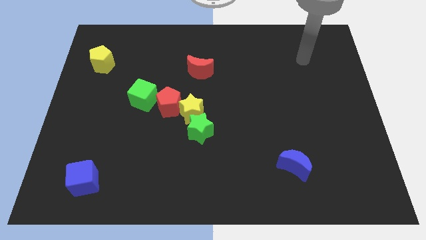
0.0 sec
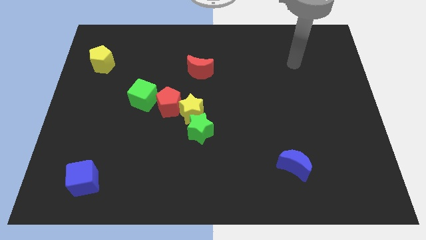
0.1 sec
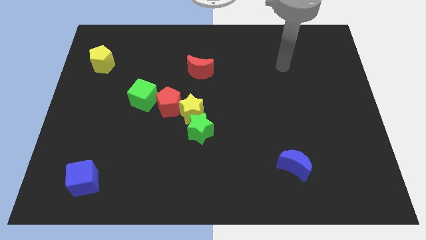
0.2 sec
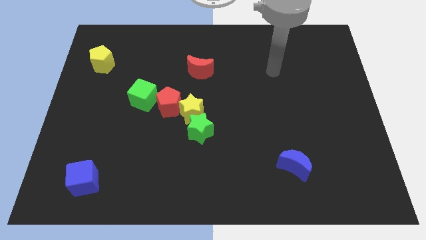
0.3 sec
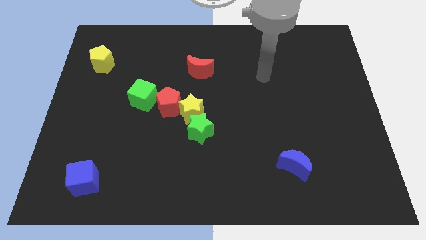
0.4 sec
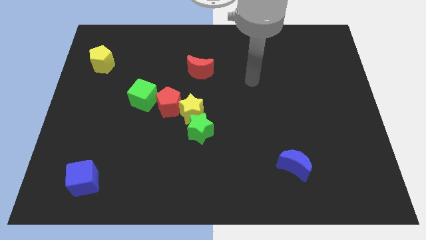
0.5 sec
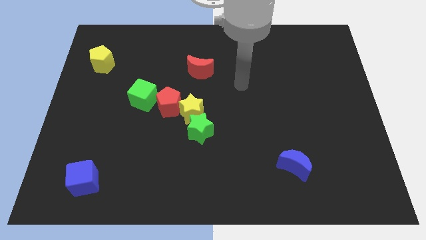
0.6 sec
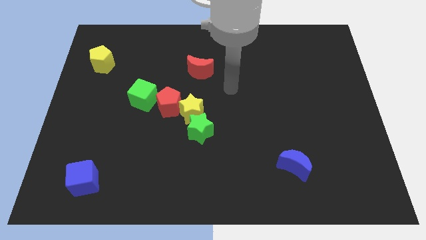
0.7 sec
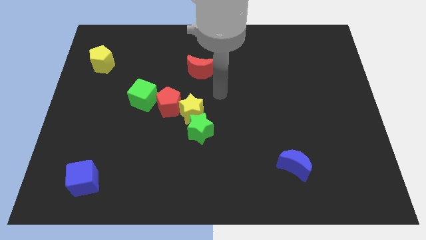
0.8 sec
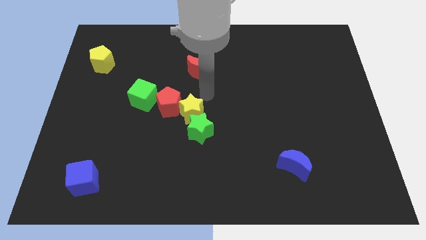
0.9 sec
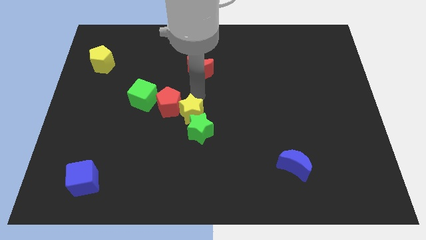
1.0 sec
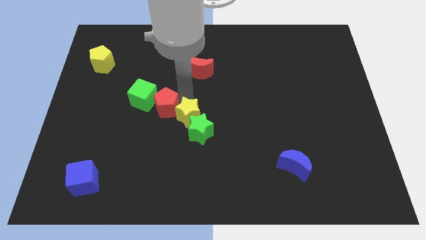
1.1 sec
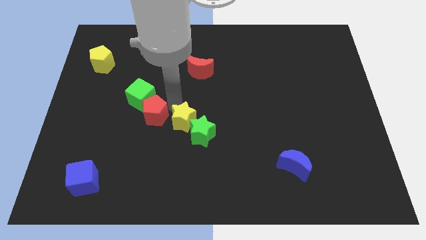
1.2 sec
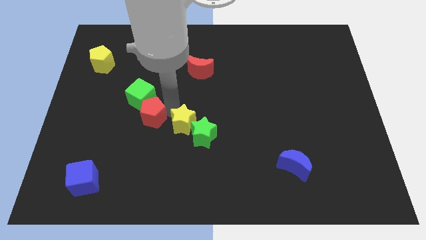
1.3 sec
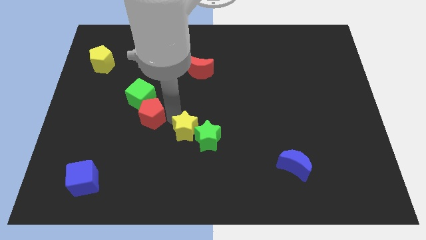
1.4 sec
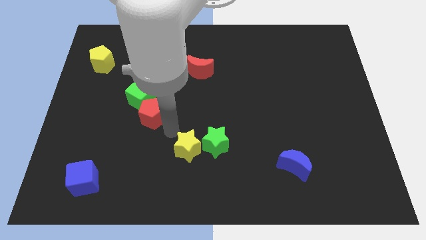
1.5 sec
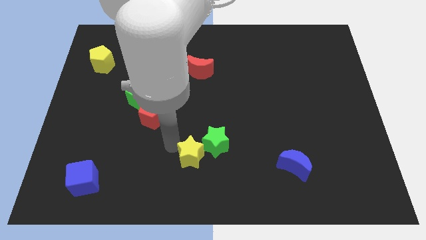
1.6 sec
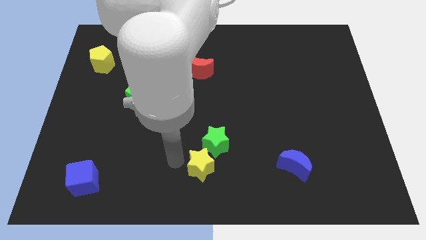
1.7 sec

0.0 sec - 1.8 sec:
move the yellow star away from the green star and red pentagon

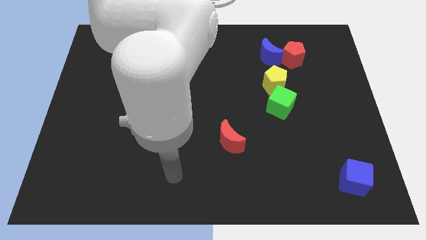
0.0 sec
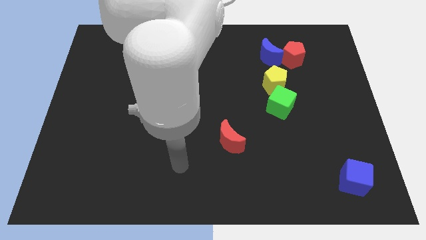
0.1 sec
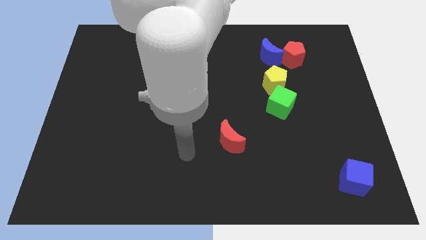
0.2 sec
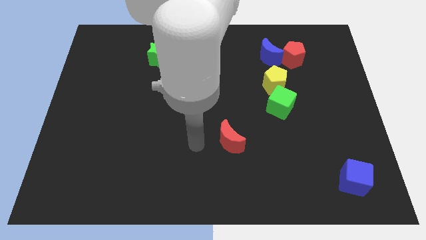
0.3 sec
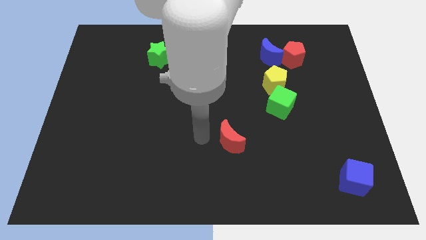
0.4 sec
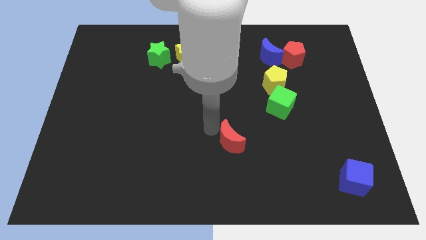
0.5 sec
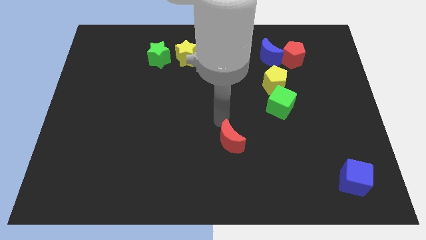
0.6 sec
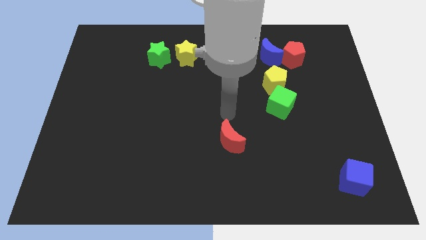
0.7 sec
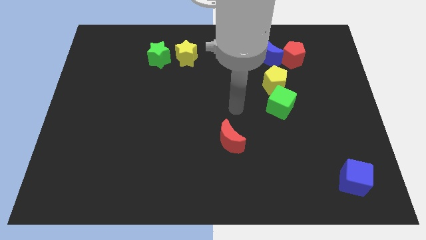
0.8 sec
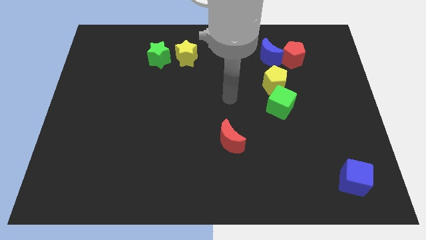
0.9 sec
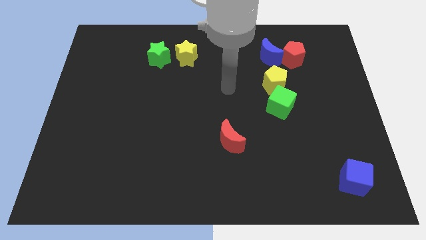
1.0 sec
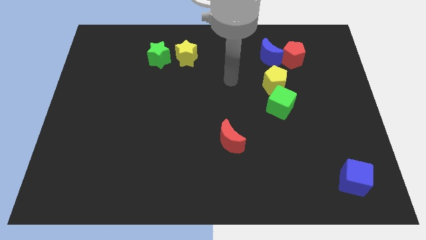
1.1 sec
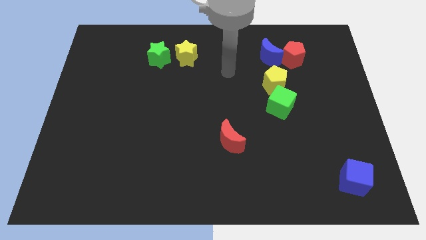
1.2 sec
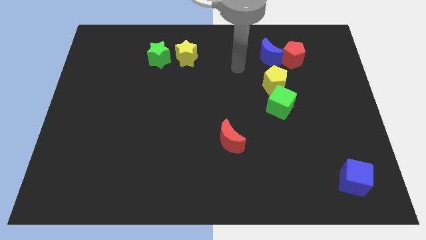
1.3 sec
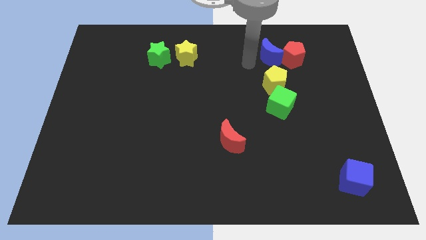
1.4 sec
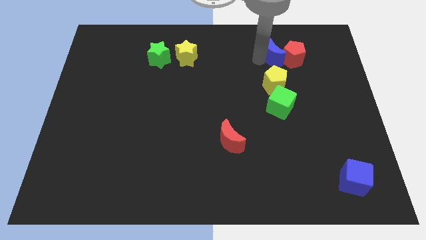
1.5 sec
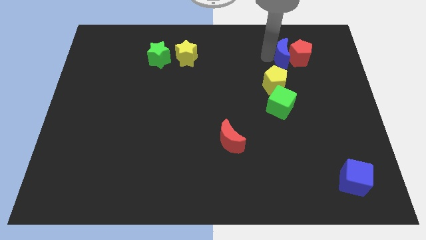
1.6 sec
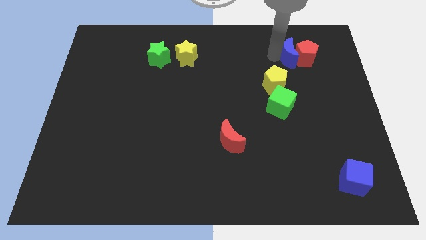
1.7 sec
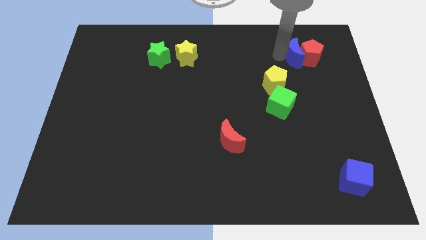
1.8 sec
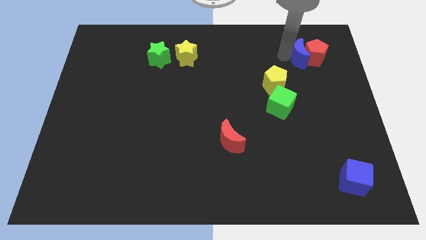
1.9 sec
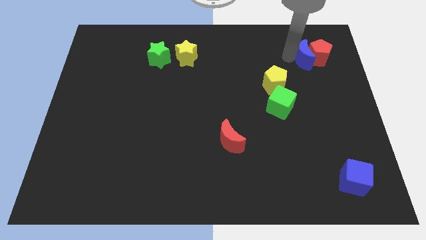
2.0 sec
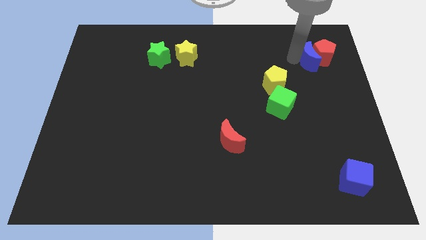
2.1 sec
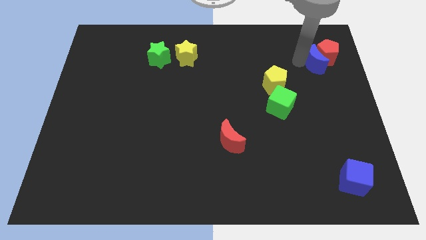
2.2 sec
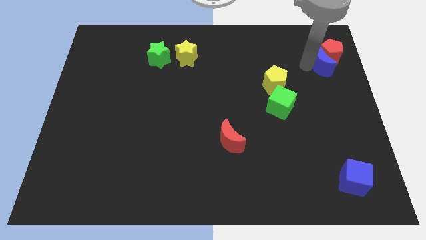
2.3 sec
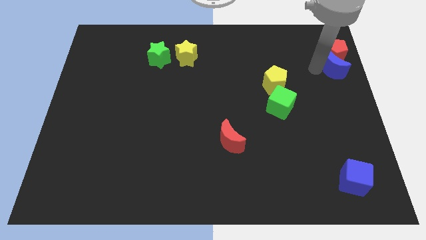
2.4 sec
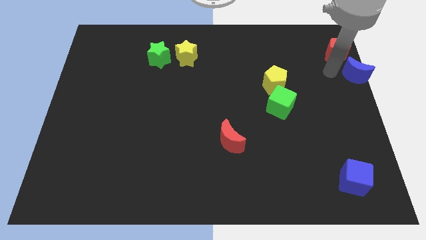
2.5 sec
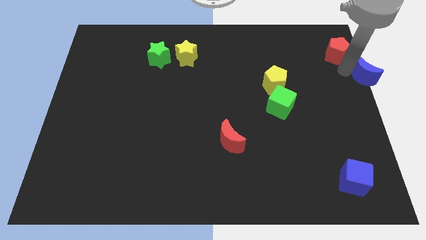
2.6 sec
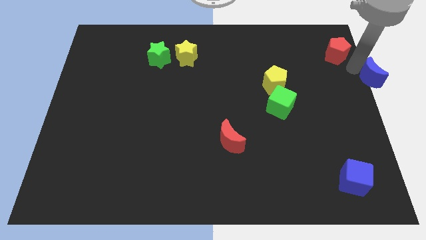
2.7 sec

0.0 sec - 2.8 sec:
pull the red pentagon apart from the blue moon

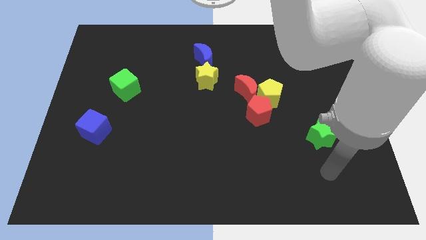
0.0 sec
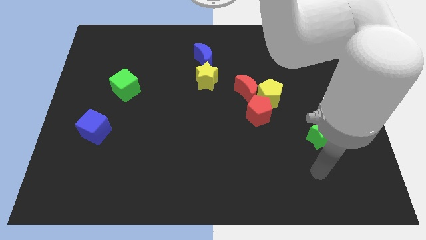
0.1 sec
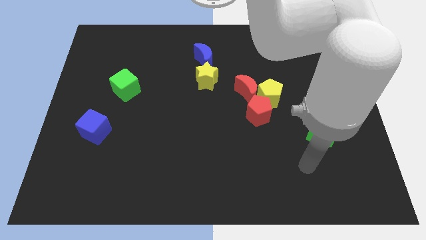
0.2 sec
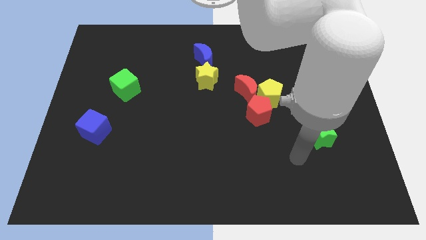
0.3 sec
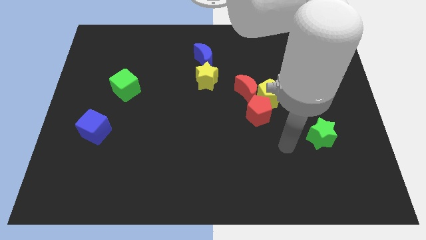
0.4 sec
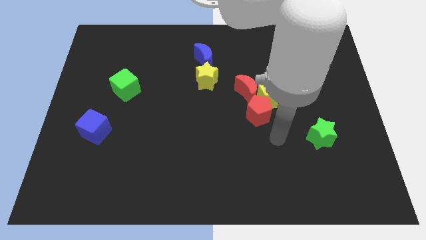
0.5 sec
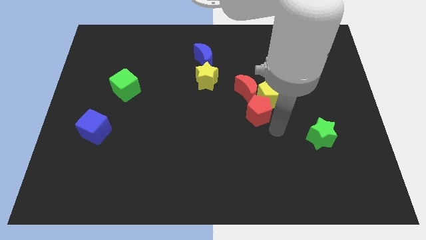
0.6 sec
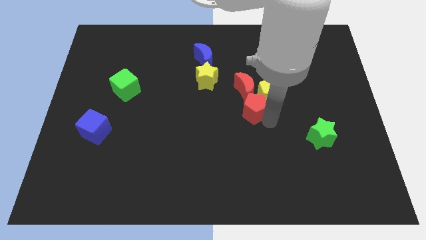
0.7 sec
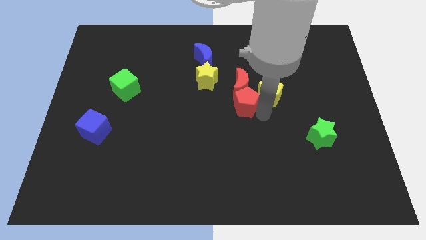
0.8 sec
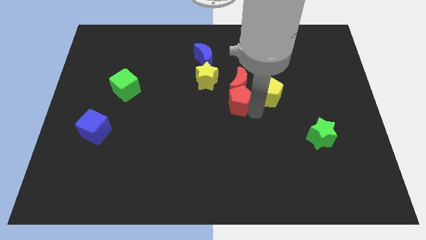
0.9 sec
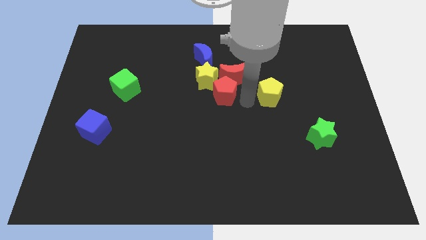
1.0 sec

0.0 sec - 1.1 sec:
pull the yellow pentagon apart from the red moon and red pentagon

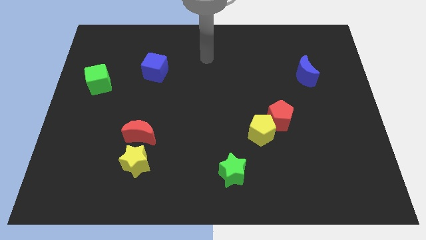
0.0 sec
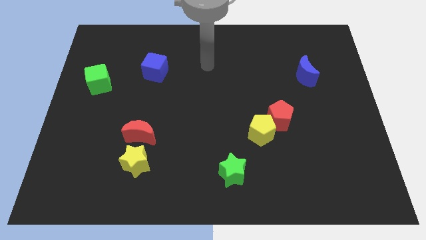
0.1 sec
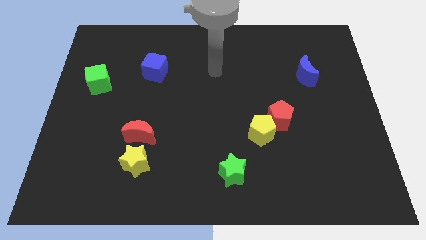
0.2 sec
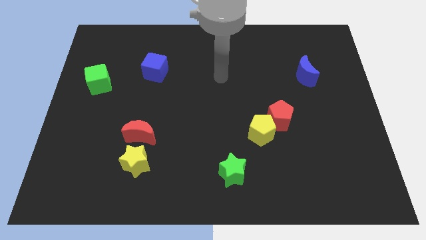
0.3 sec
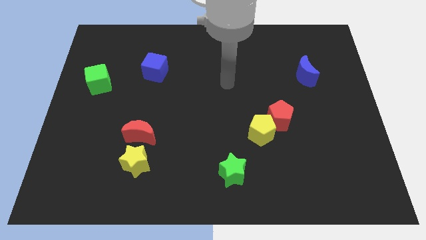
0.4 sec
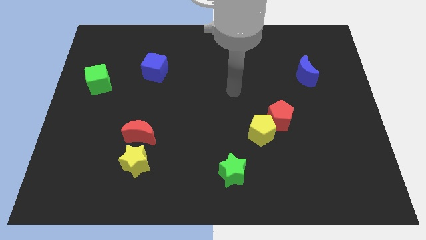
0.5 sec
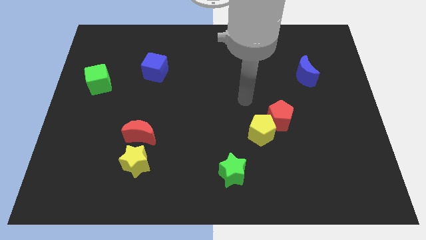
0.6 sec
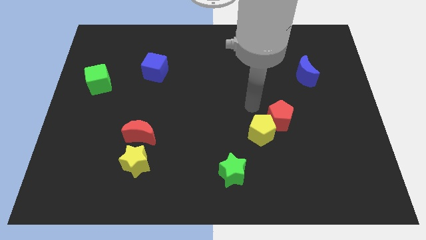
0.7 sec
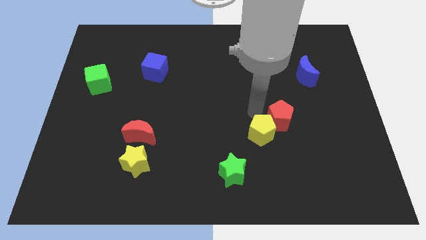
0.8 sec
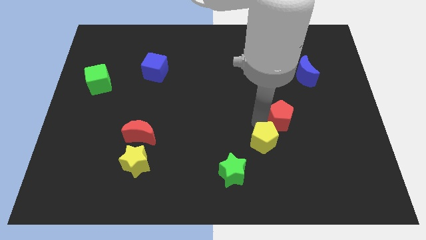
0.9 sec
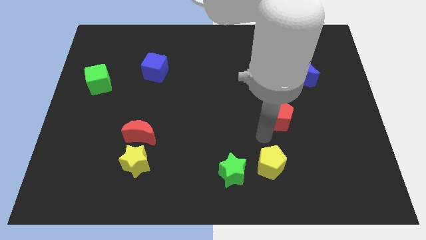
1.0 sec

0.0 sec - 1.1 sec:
pull the red pentagon apart from the yellow pentagon

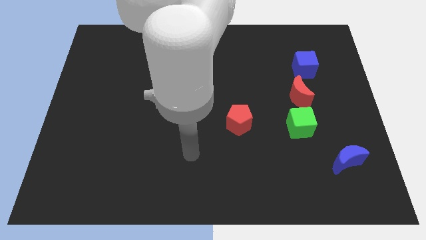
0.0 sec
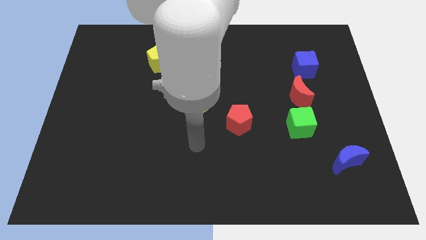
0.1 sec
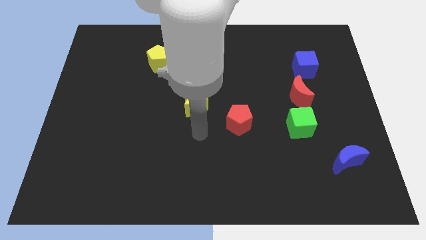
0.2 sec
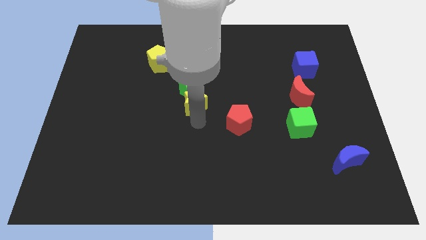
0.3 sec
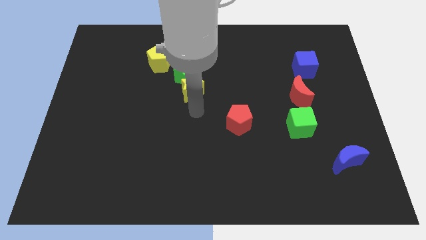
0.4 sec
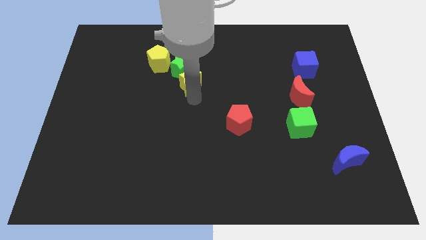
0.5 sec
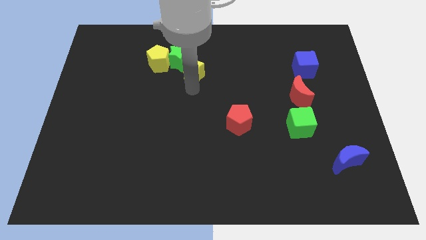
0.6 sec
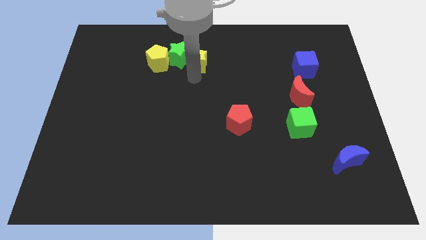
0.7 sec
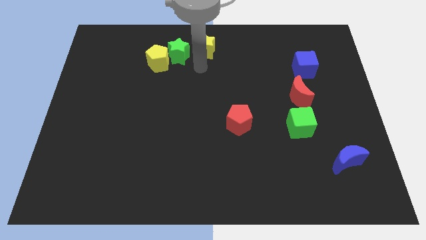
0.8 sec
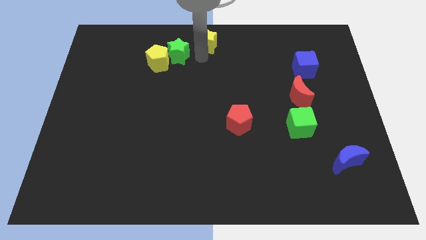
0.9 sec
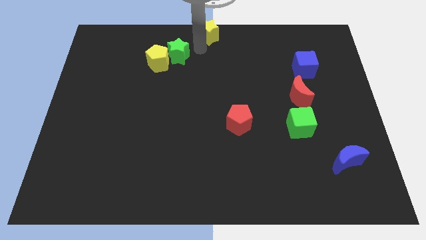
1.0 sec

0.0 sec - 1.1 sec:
move the green star away from the yellow star

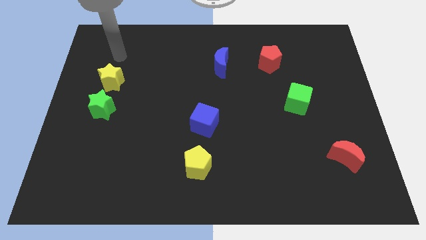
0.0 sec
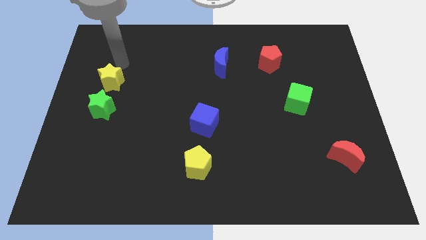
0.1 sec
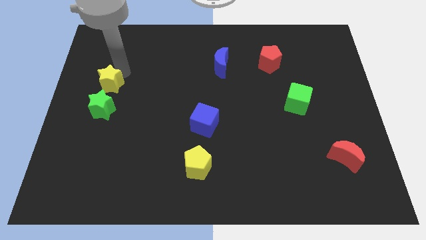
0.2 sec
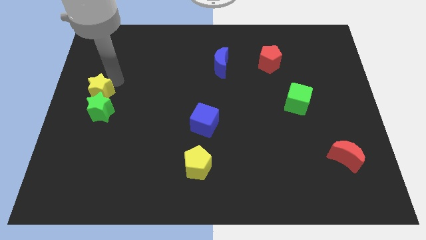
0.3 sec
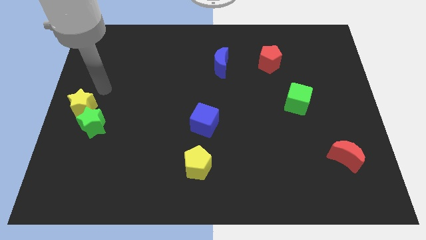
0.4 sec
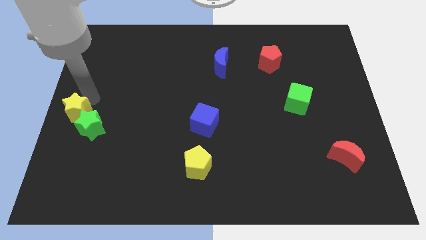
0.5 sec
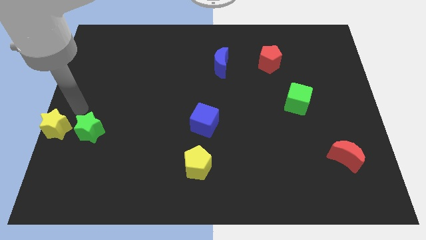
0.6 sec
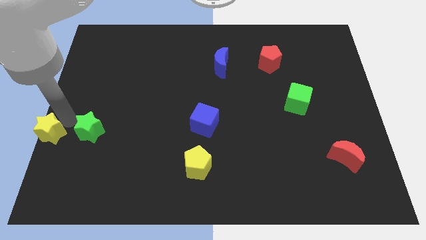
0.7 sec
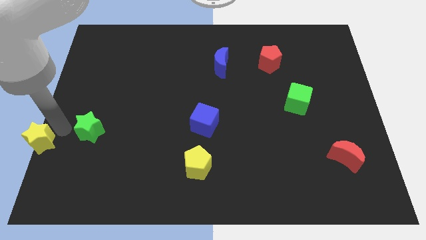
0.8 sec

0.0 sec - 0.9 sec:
pull the green star apart from the yellow star

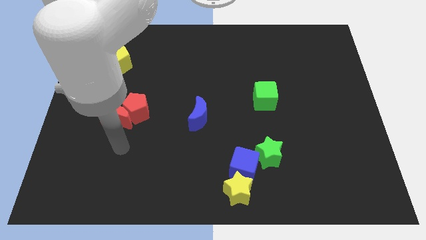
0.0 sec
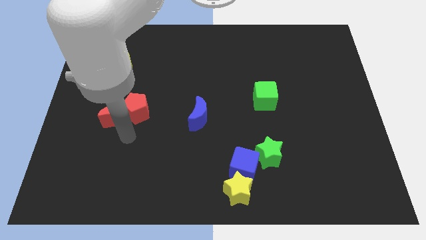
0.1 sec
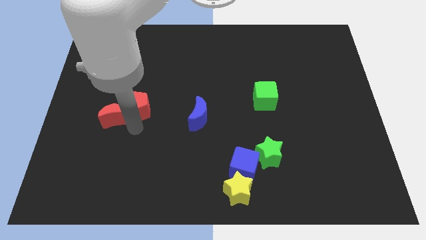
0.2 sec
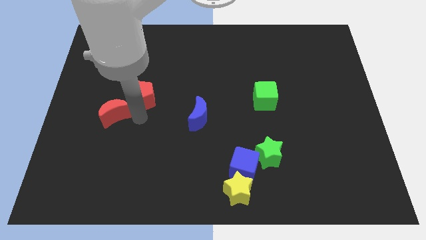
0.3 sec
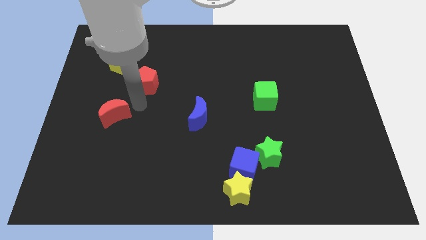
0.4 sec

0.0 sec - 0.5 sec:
separate the red moon from the red pentagon

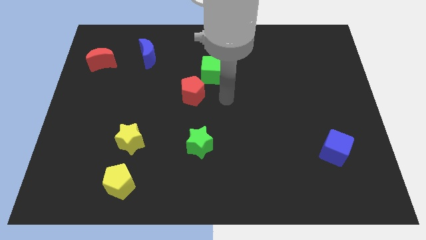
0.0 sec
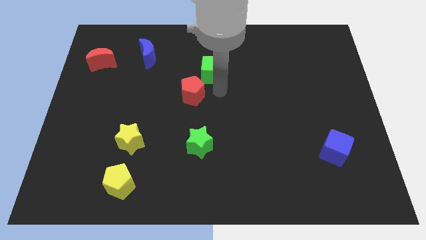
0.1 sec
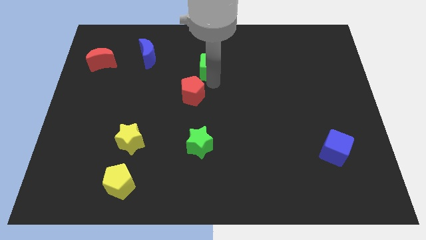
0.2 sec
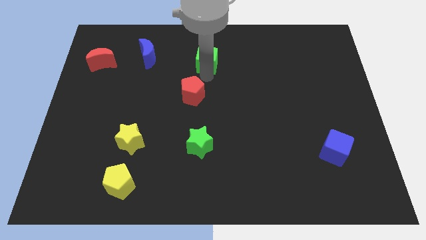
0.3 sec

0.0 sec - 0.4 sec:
move the red pentagon away from the green cube
